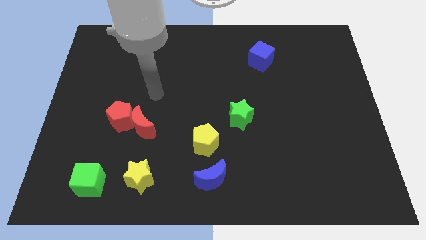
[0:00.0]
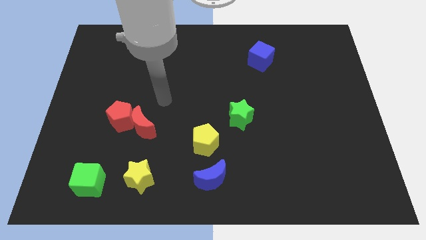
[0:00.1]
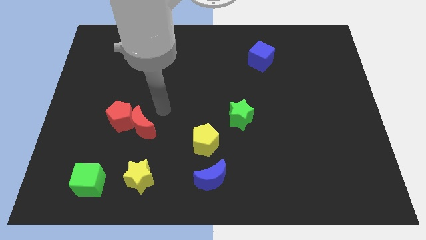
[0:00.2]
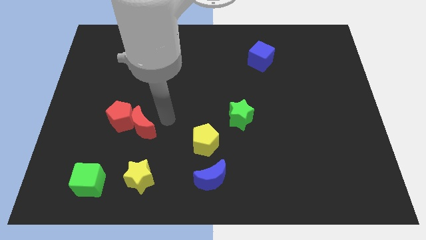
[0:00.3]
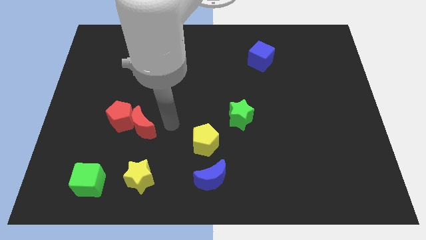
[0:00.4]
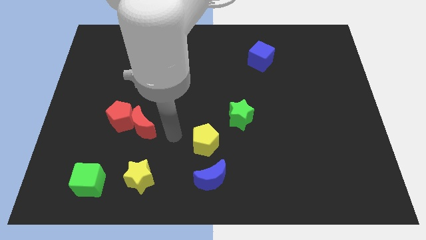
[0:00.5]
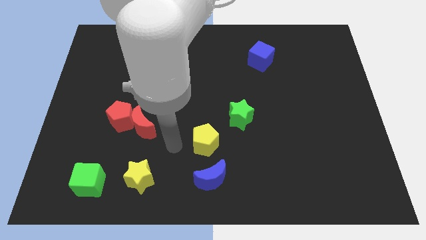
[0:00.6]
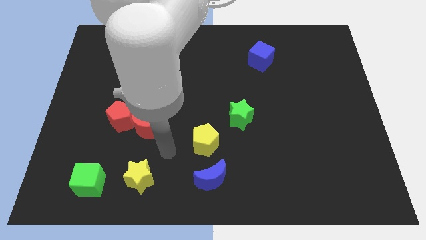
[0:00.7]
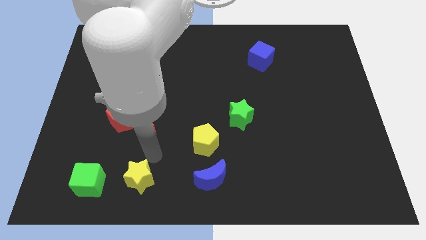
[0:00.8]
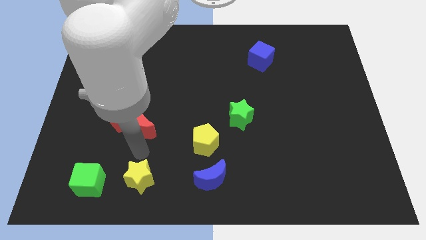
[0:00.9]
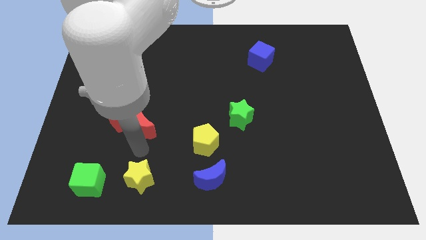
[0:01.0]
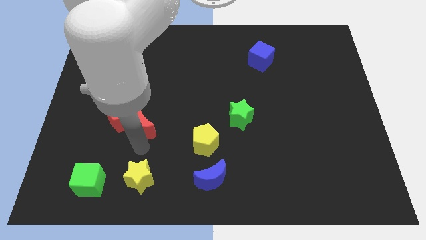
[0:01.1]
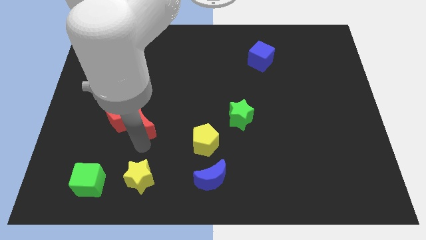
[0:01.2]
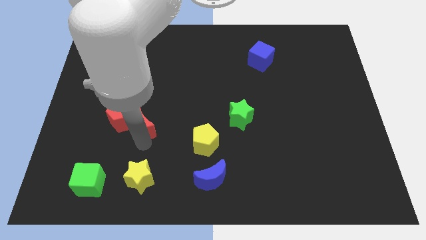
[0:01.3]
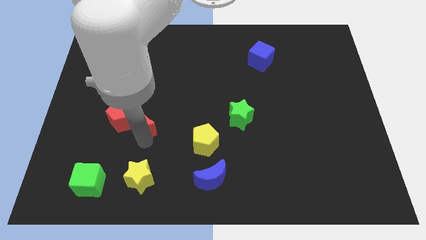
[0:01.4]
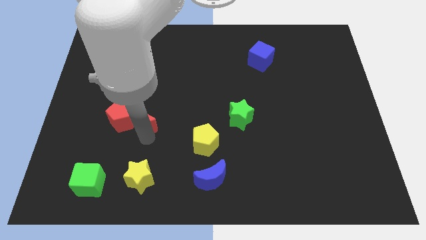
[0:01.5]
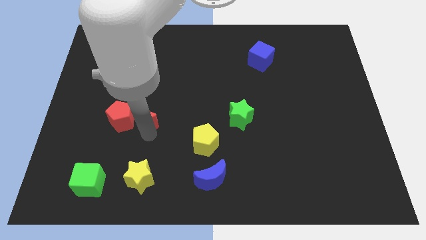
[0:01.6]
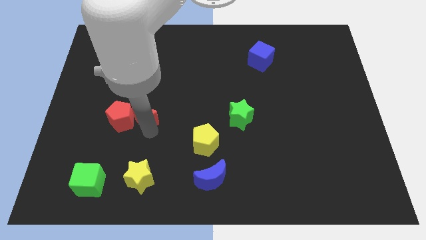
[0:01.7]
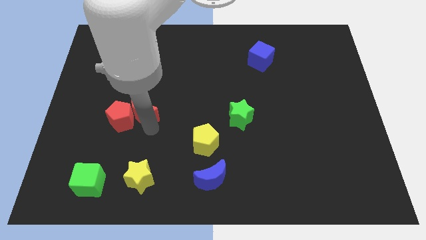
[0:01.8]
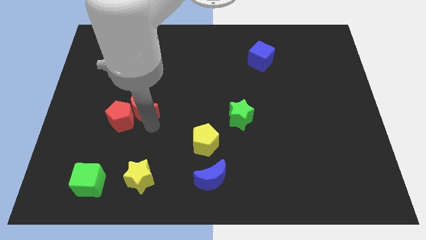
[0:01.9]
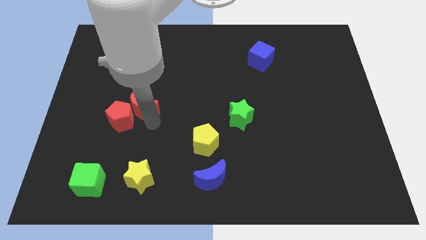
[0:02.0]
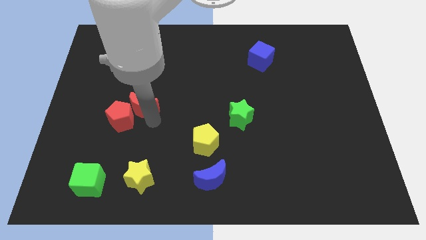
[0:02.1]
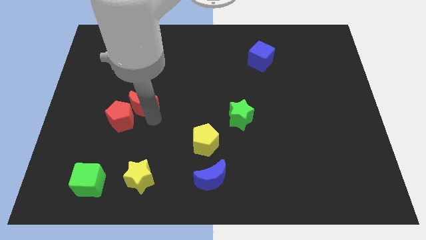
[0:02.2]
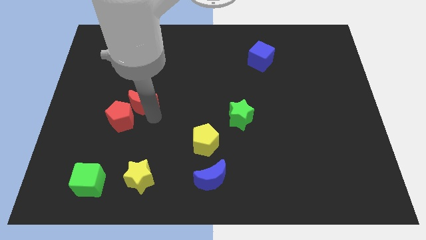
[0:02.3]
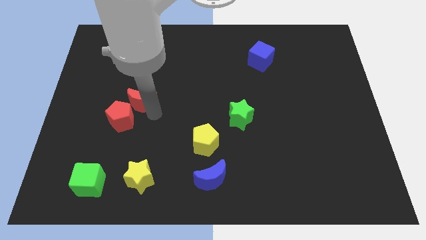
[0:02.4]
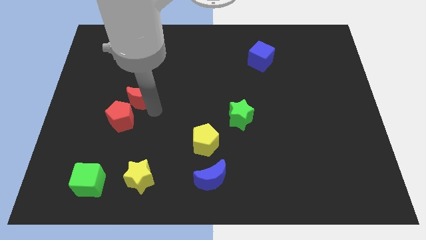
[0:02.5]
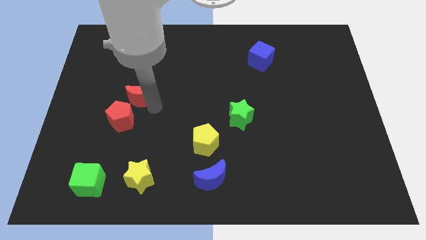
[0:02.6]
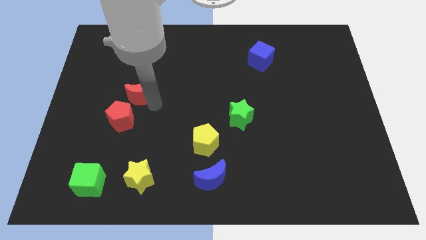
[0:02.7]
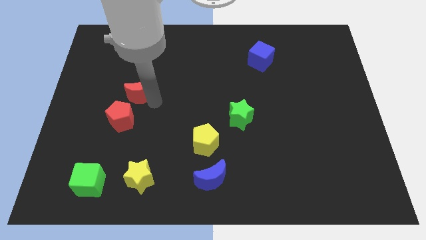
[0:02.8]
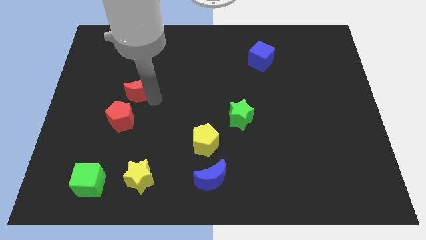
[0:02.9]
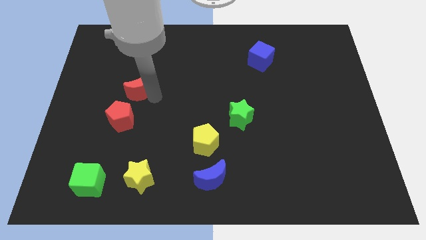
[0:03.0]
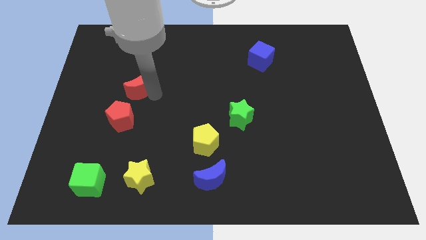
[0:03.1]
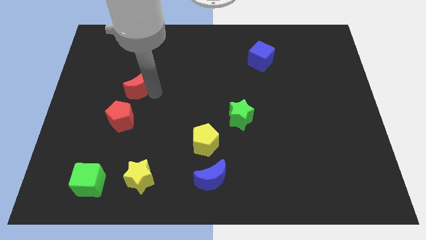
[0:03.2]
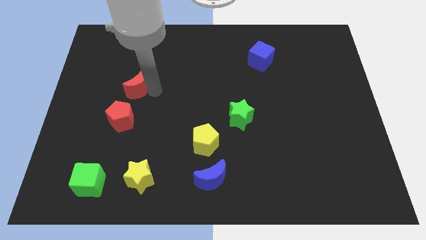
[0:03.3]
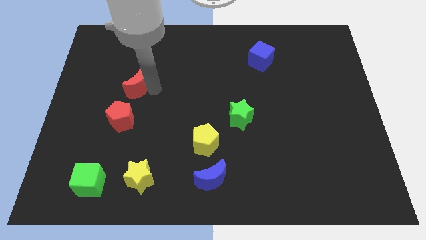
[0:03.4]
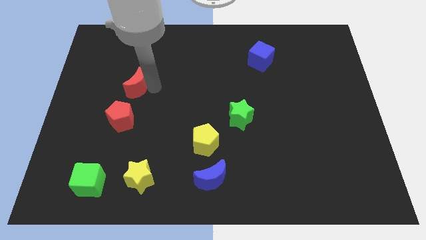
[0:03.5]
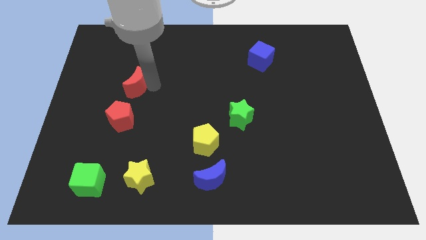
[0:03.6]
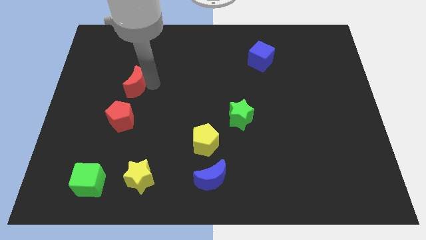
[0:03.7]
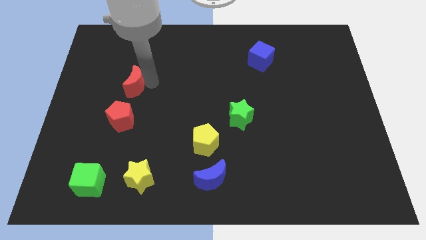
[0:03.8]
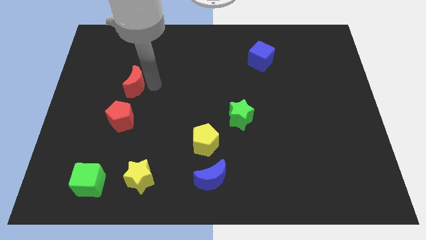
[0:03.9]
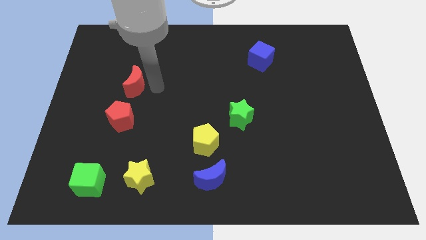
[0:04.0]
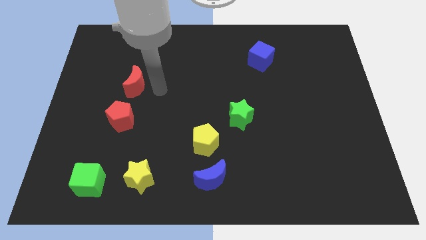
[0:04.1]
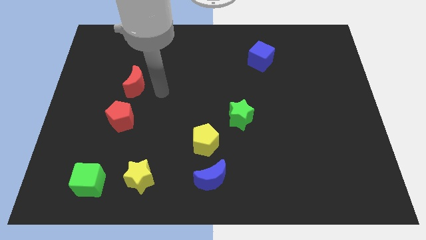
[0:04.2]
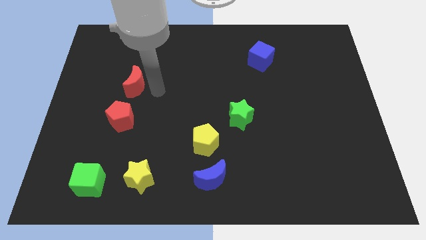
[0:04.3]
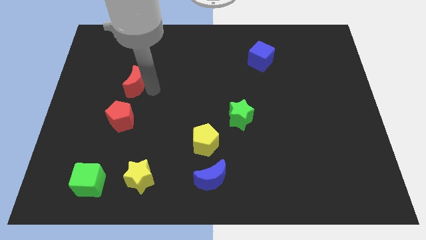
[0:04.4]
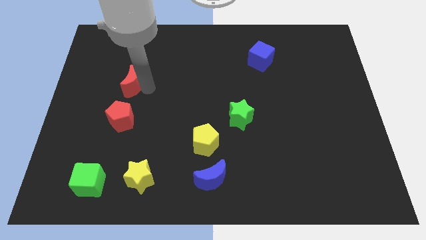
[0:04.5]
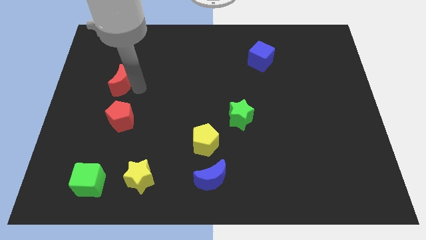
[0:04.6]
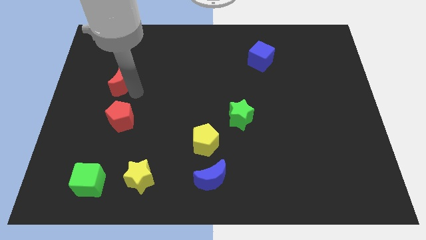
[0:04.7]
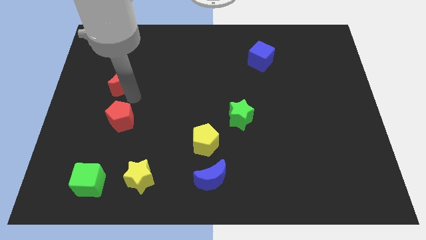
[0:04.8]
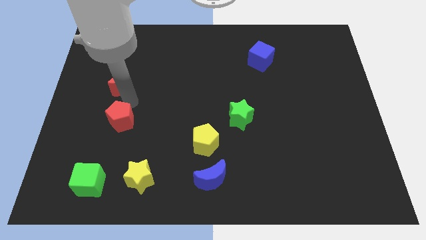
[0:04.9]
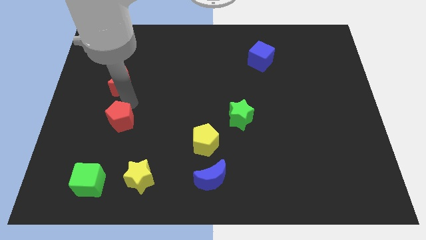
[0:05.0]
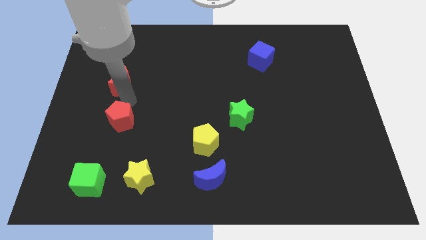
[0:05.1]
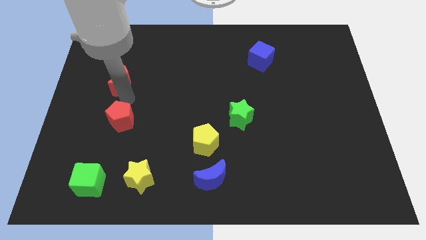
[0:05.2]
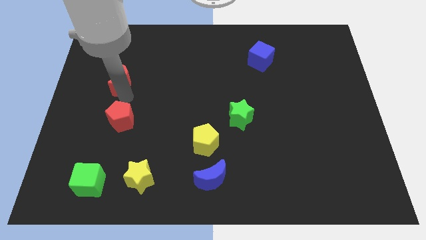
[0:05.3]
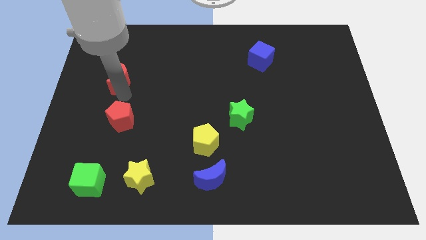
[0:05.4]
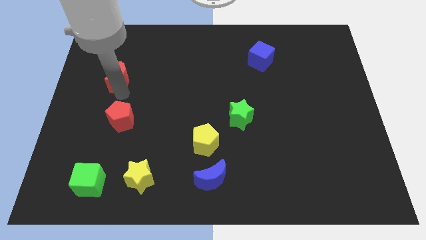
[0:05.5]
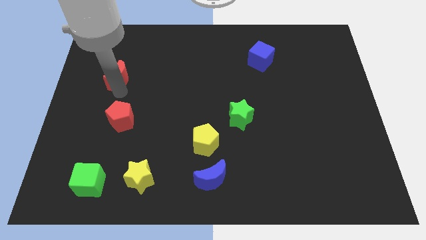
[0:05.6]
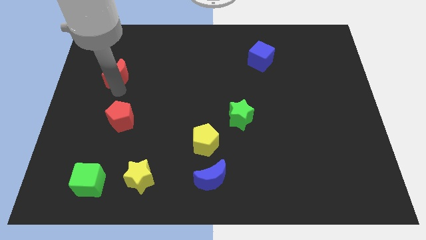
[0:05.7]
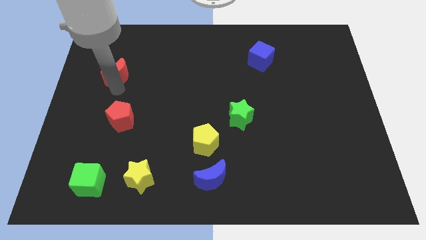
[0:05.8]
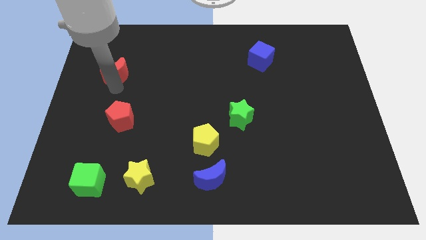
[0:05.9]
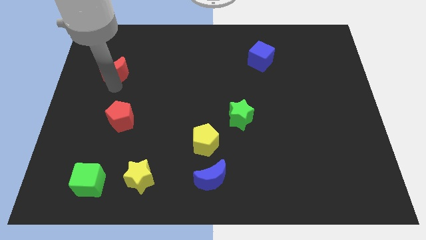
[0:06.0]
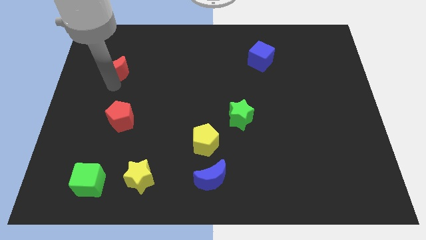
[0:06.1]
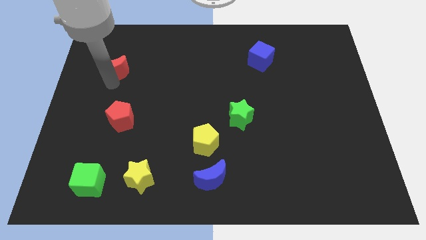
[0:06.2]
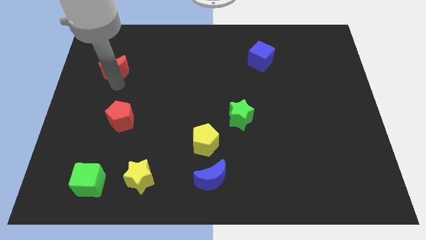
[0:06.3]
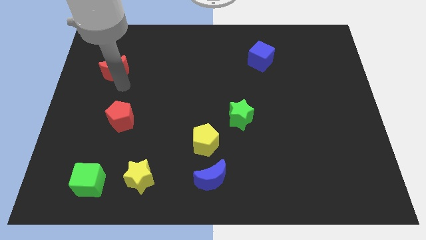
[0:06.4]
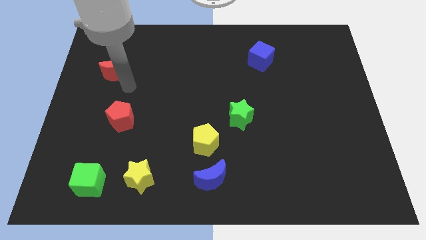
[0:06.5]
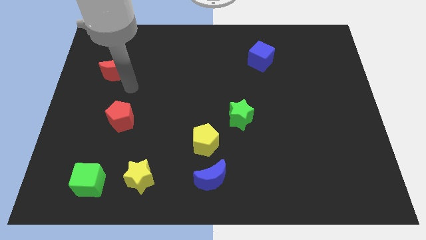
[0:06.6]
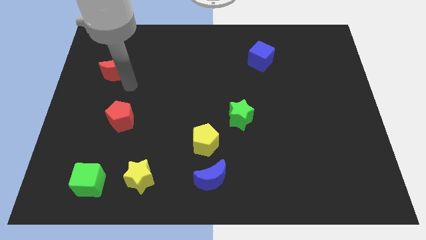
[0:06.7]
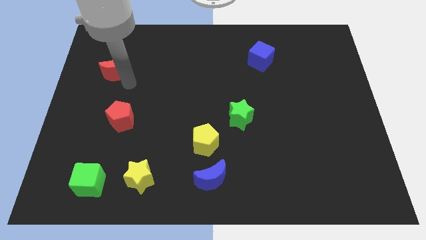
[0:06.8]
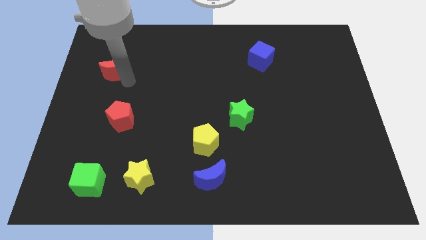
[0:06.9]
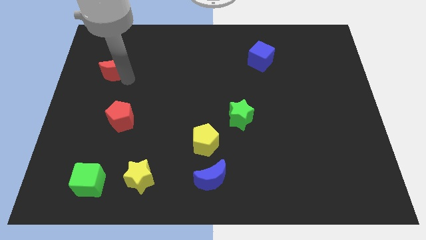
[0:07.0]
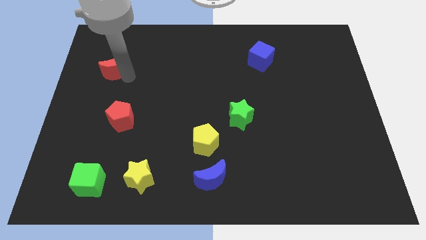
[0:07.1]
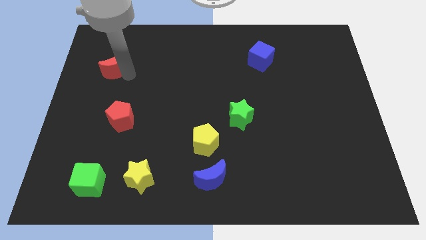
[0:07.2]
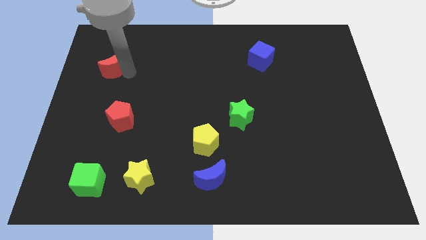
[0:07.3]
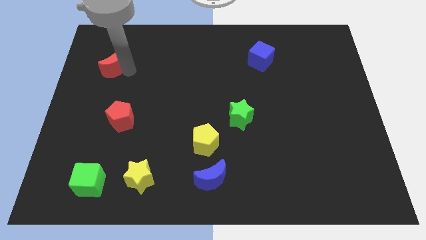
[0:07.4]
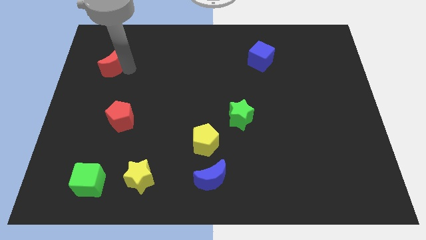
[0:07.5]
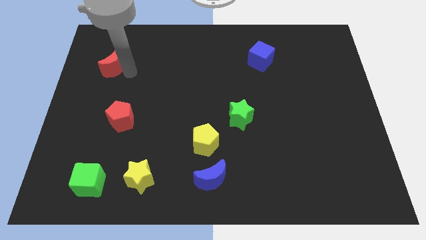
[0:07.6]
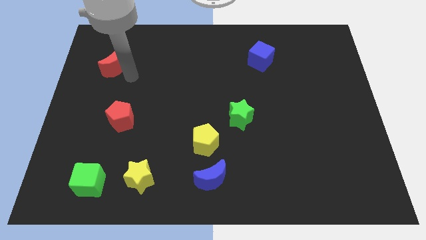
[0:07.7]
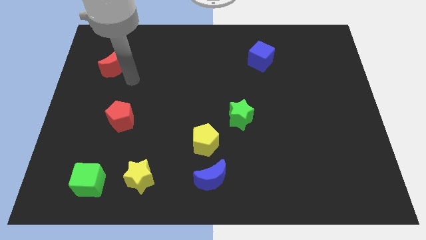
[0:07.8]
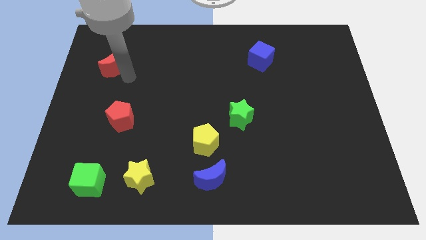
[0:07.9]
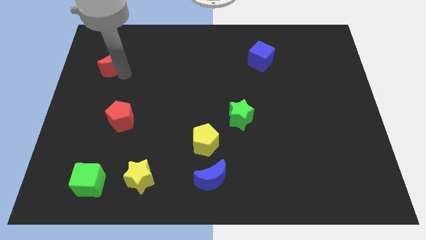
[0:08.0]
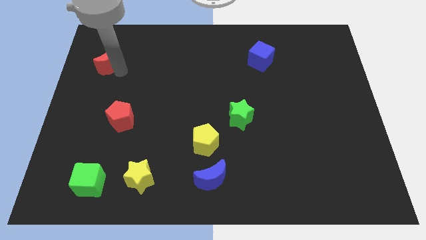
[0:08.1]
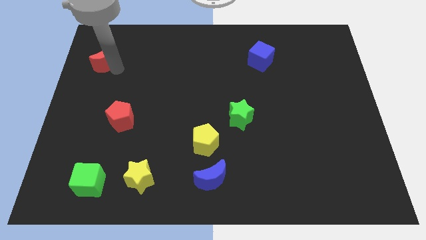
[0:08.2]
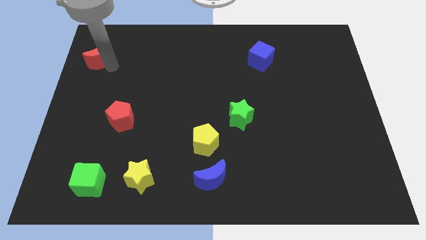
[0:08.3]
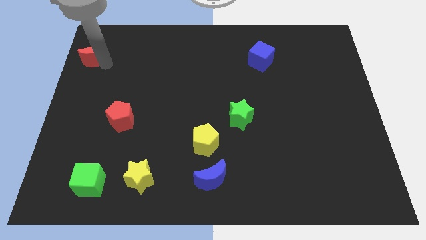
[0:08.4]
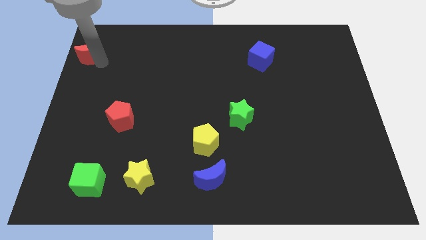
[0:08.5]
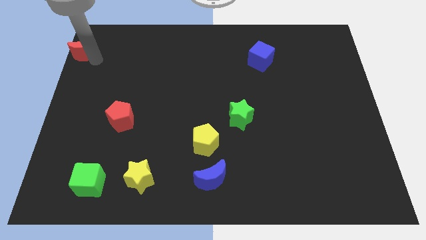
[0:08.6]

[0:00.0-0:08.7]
push the red moon to the upper left corner
